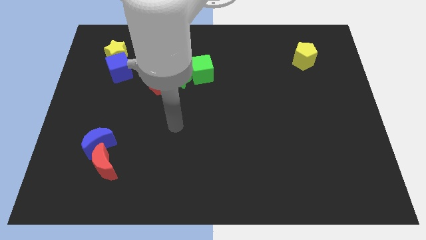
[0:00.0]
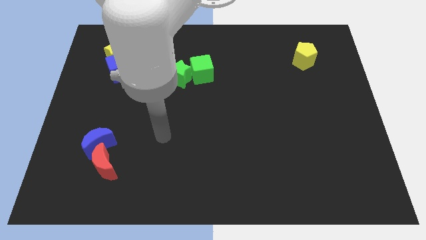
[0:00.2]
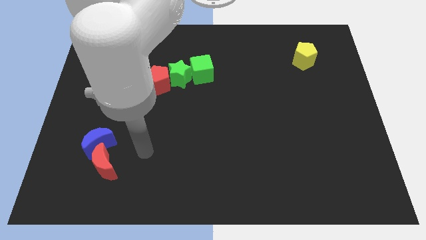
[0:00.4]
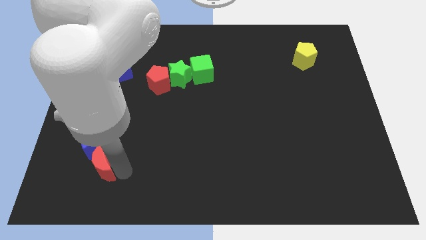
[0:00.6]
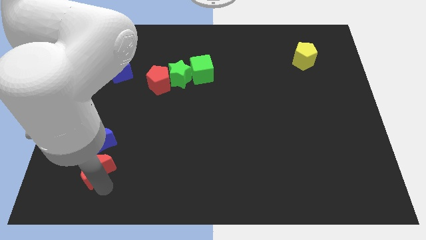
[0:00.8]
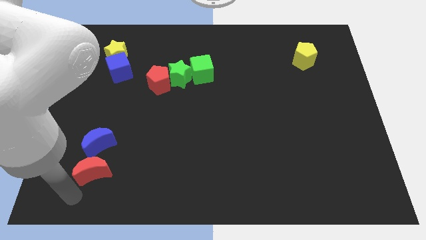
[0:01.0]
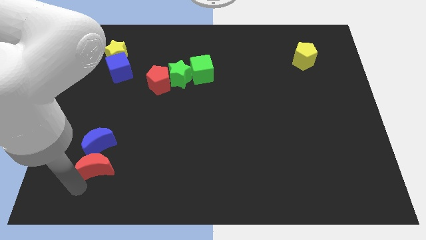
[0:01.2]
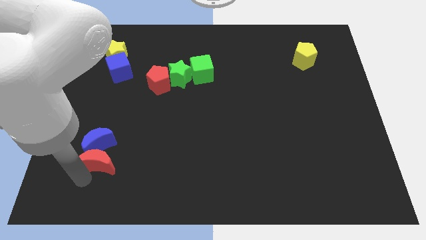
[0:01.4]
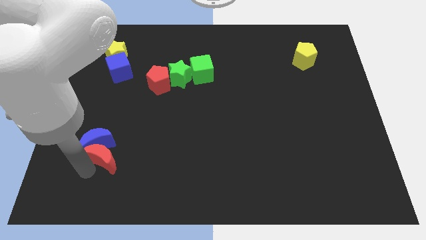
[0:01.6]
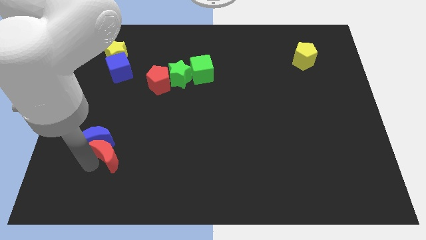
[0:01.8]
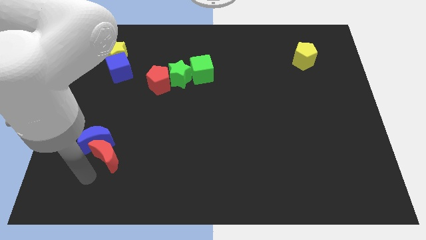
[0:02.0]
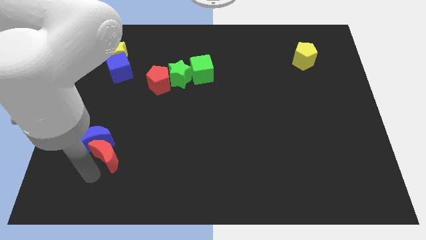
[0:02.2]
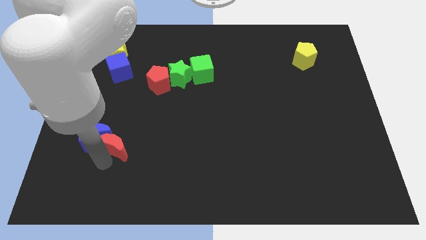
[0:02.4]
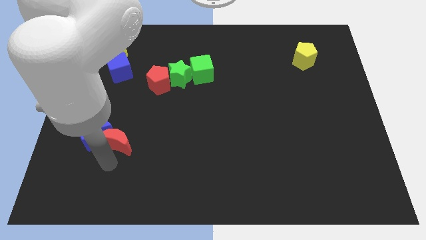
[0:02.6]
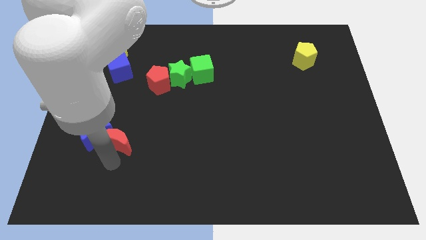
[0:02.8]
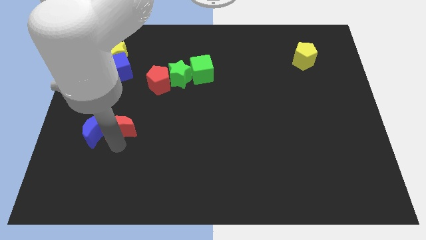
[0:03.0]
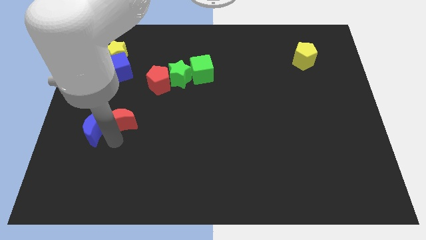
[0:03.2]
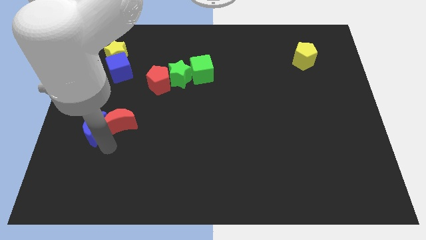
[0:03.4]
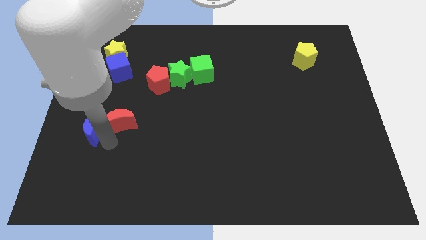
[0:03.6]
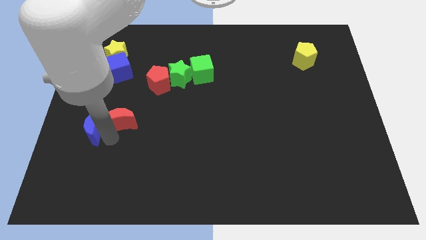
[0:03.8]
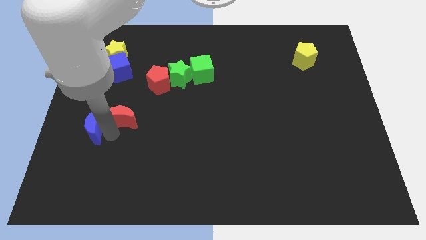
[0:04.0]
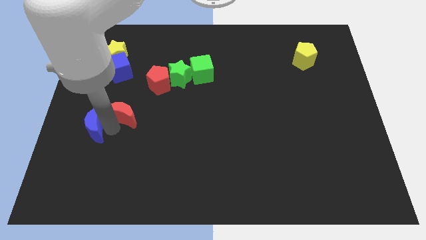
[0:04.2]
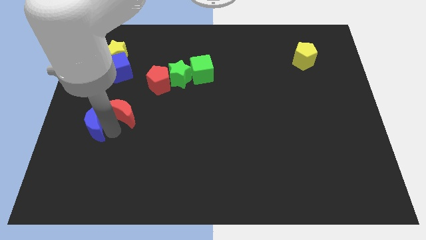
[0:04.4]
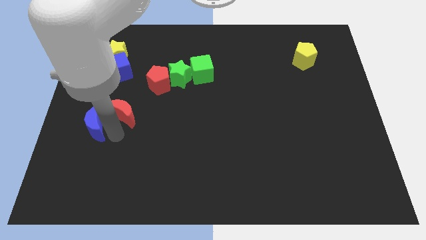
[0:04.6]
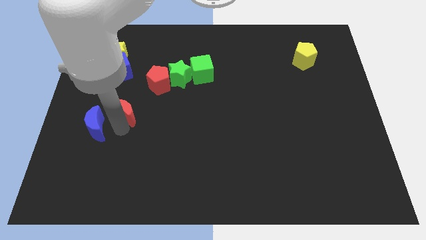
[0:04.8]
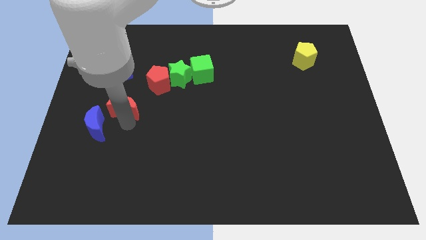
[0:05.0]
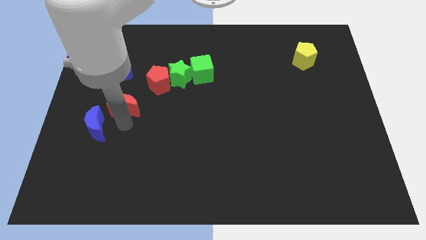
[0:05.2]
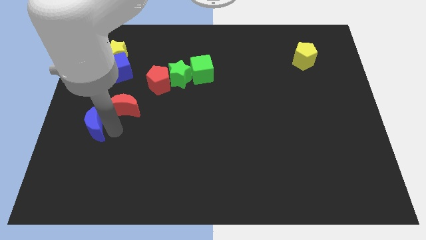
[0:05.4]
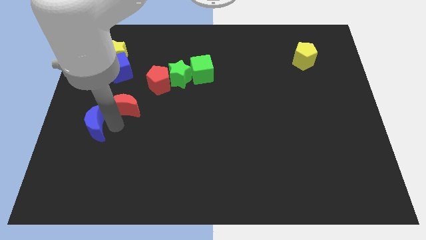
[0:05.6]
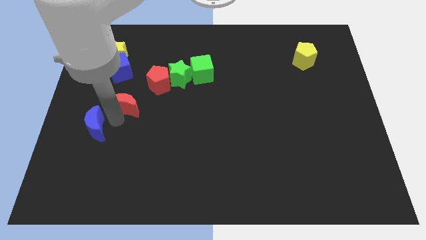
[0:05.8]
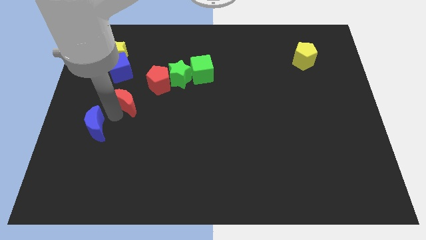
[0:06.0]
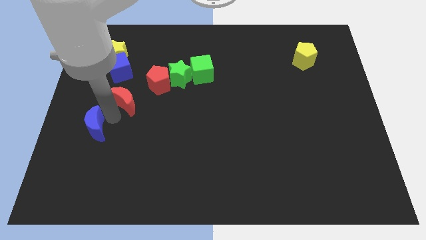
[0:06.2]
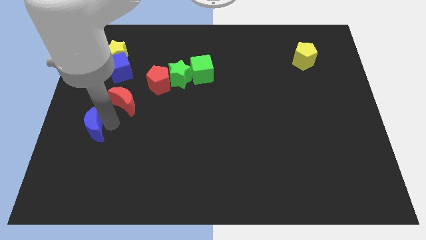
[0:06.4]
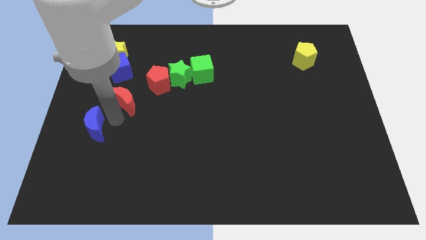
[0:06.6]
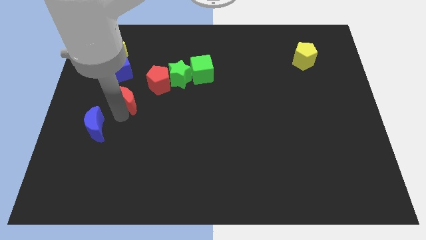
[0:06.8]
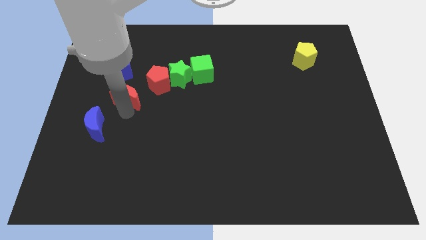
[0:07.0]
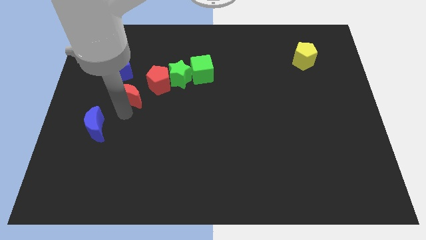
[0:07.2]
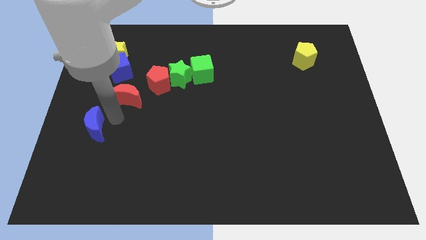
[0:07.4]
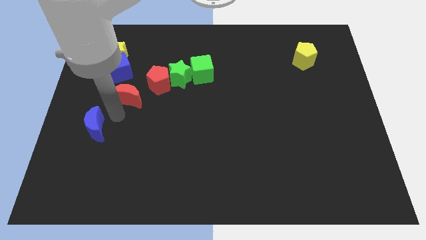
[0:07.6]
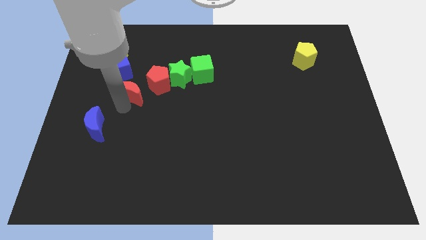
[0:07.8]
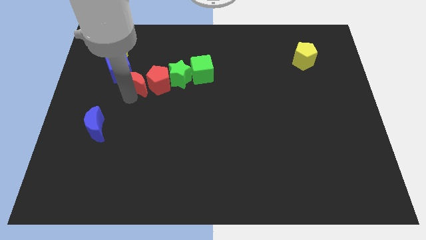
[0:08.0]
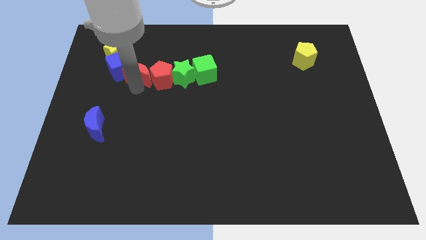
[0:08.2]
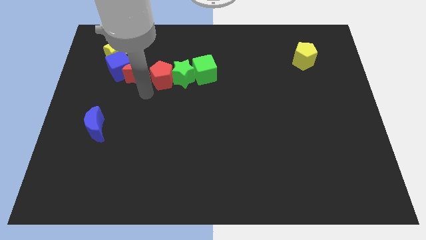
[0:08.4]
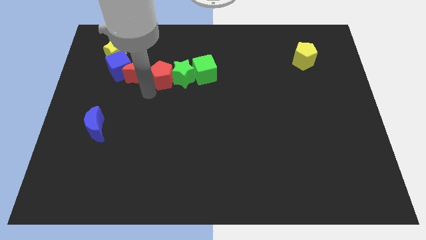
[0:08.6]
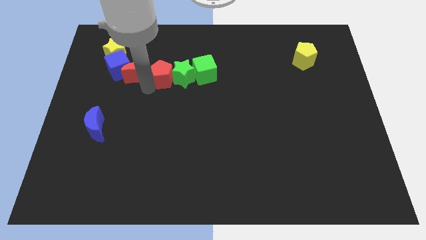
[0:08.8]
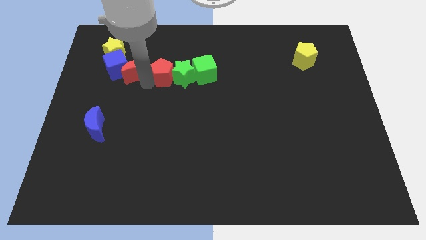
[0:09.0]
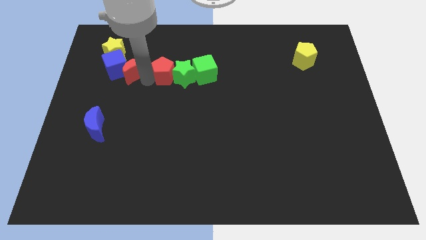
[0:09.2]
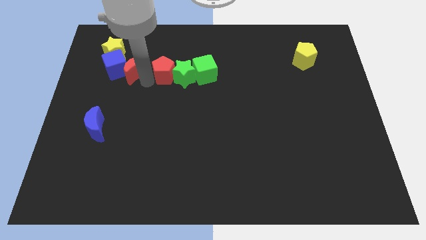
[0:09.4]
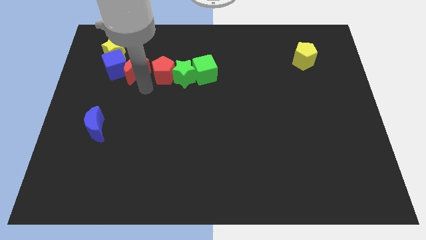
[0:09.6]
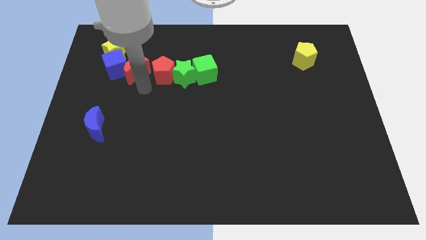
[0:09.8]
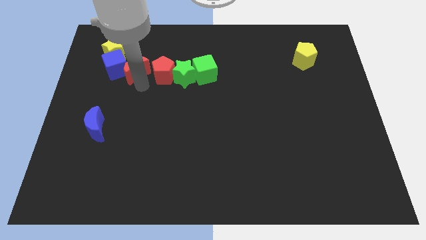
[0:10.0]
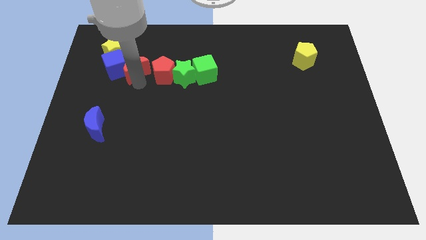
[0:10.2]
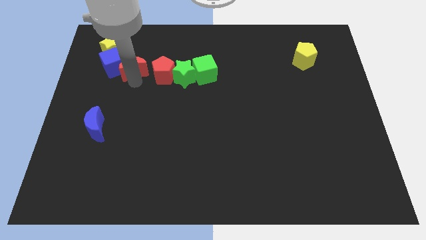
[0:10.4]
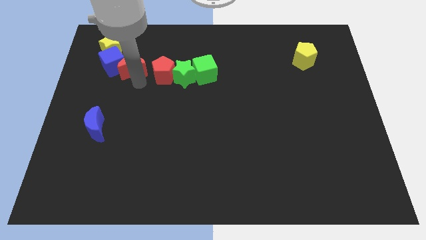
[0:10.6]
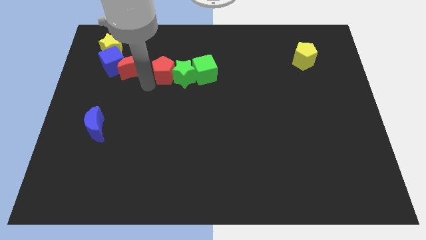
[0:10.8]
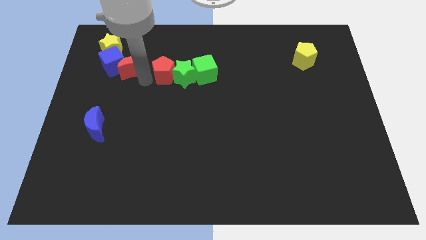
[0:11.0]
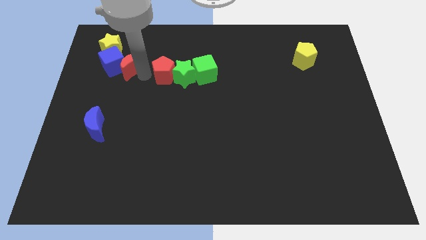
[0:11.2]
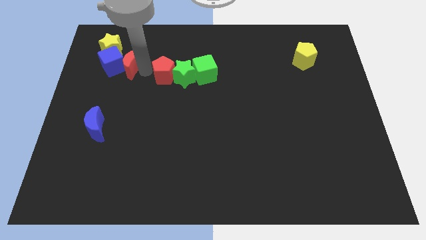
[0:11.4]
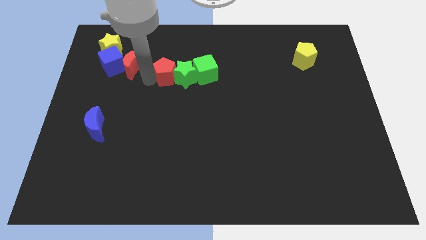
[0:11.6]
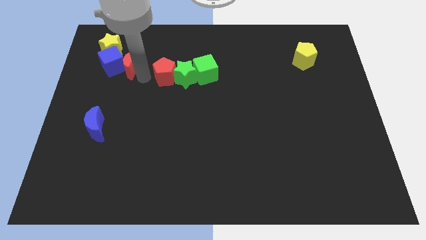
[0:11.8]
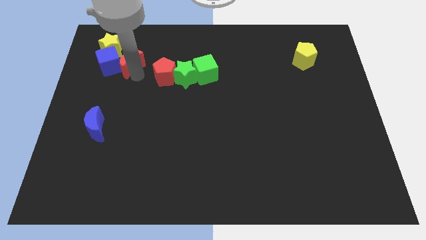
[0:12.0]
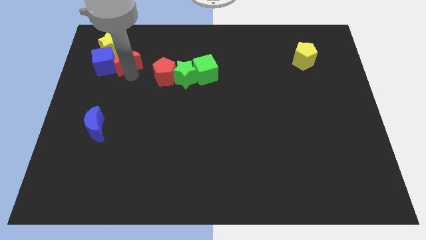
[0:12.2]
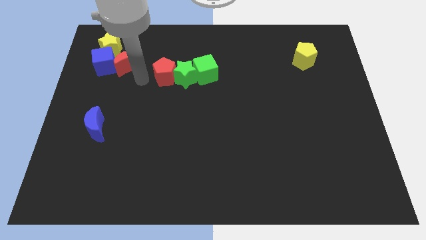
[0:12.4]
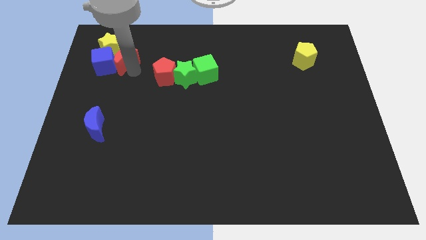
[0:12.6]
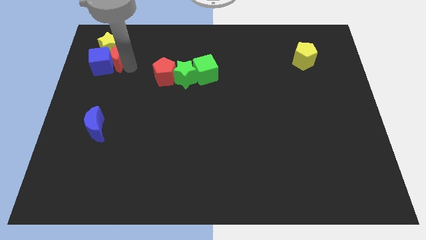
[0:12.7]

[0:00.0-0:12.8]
put the red moon close to the yellow star
